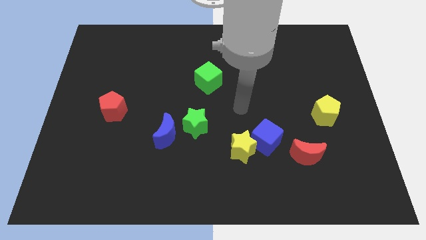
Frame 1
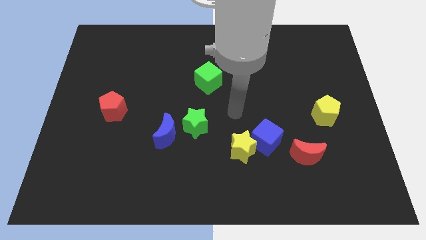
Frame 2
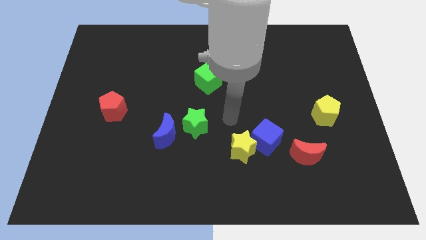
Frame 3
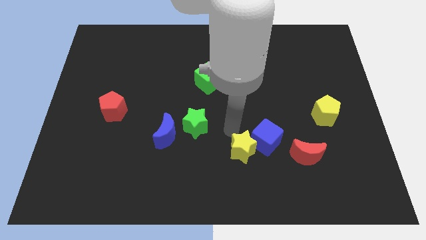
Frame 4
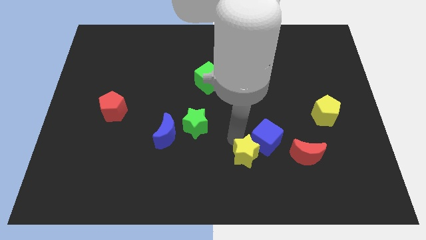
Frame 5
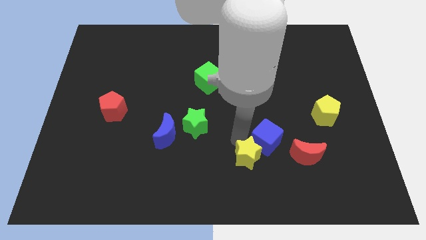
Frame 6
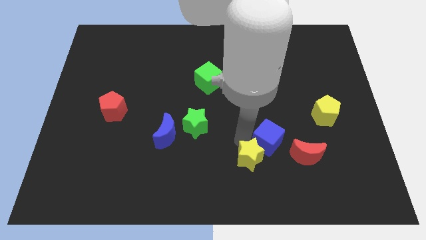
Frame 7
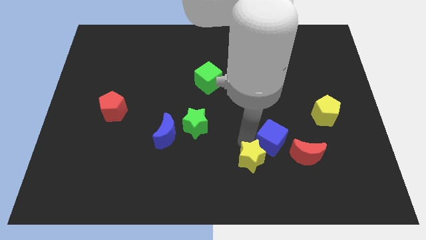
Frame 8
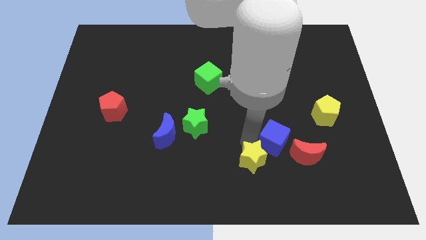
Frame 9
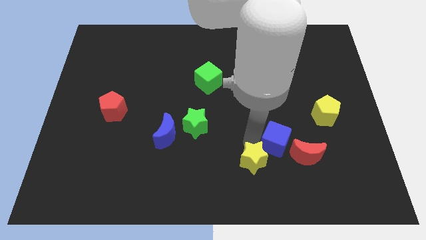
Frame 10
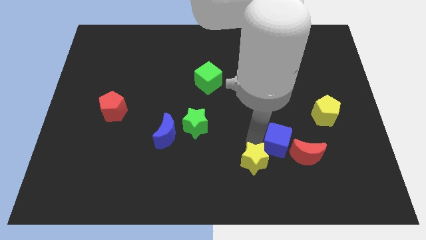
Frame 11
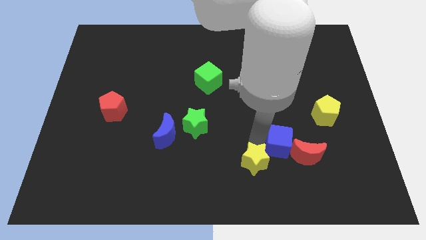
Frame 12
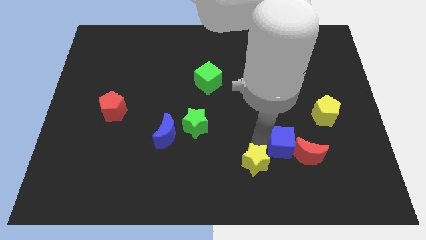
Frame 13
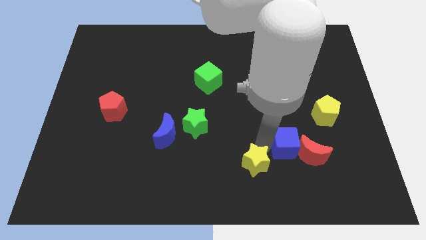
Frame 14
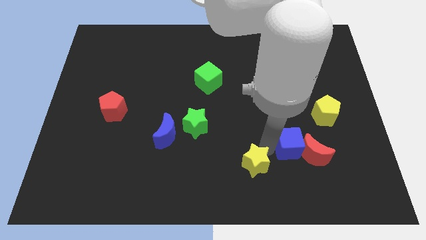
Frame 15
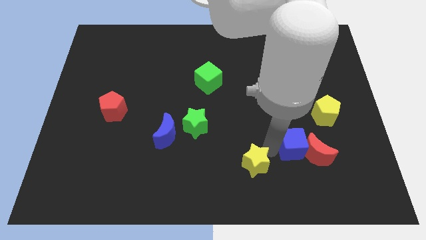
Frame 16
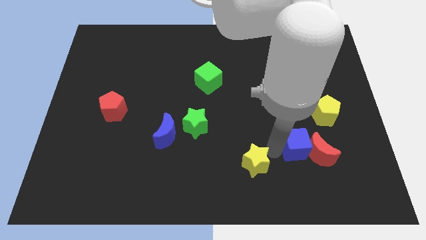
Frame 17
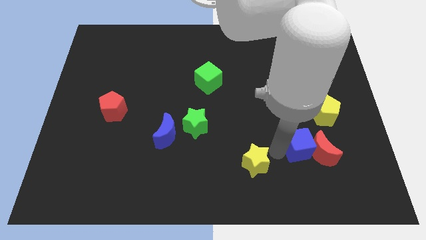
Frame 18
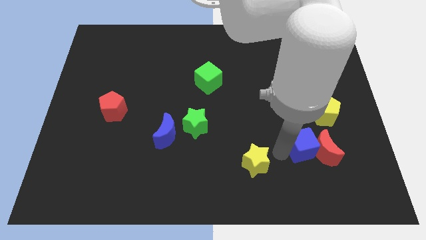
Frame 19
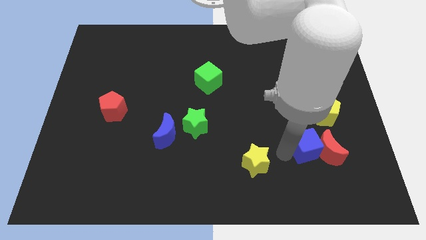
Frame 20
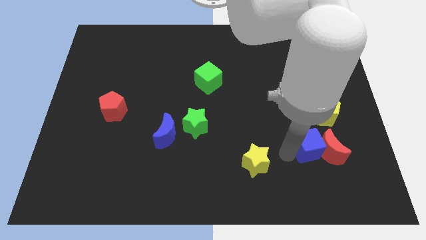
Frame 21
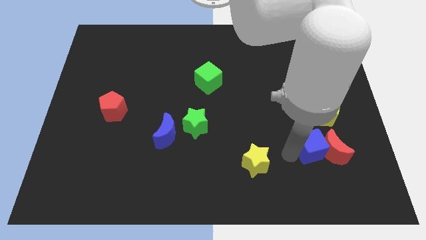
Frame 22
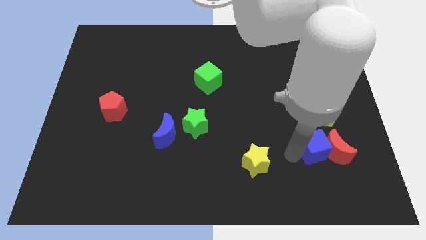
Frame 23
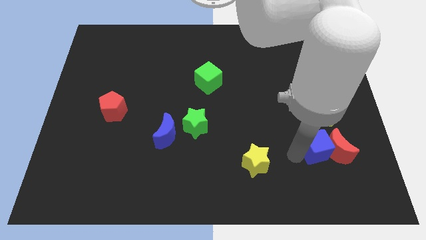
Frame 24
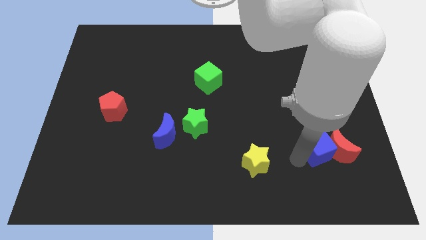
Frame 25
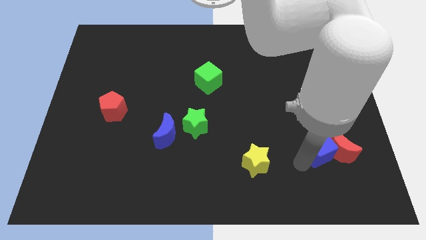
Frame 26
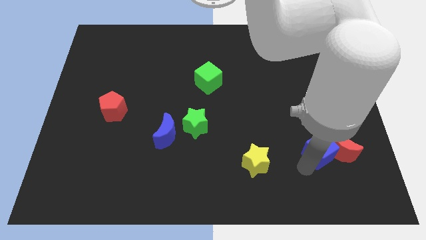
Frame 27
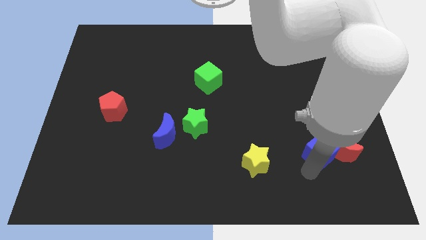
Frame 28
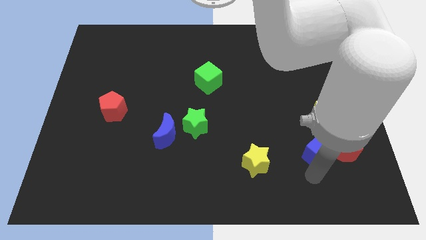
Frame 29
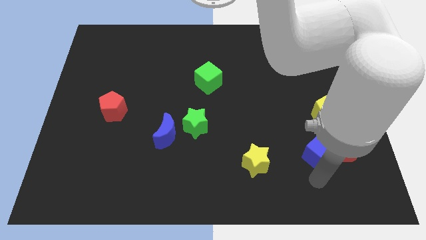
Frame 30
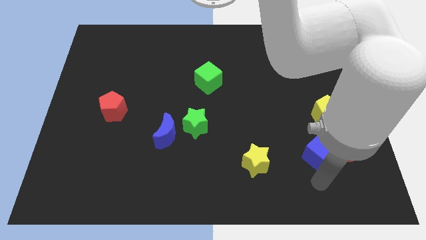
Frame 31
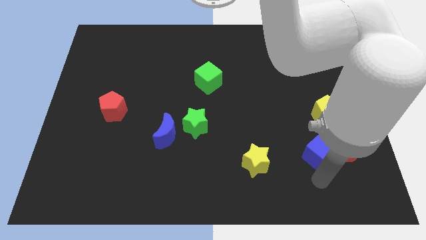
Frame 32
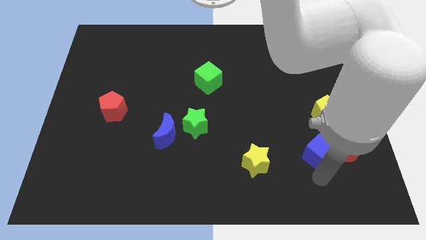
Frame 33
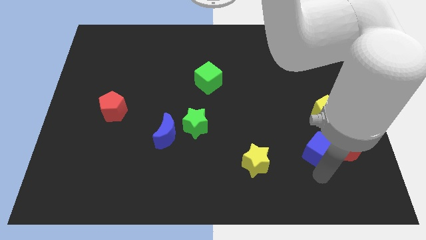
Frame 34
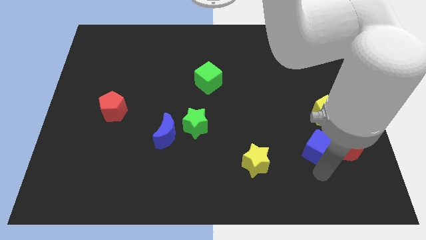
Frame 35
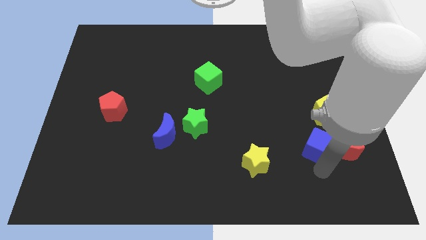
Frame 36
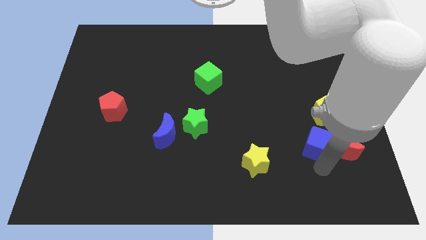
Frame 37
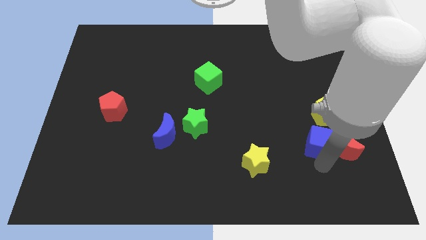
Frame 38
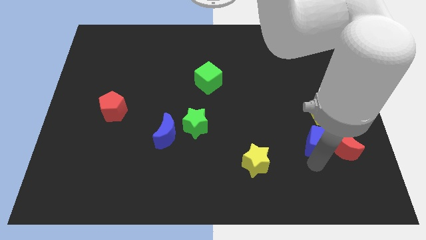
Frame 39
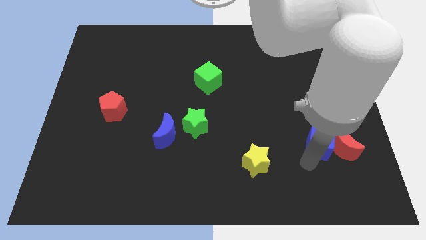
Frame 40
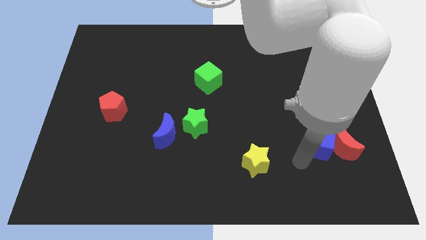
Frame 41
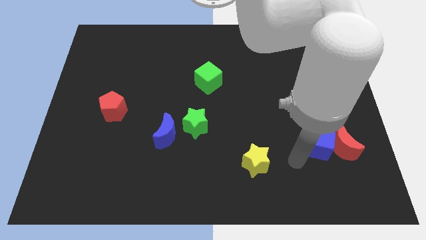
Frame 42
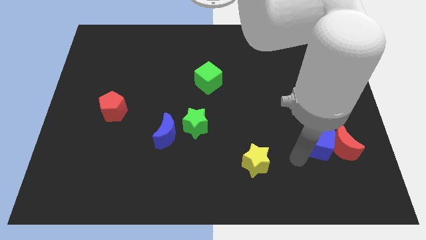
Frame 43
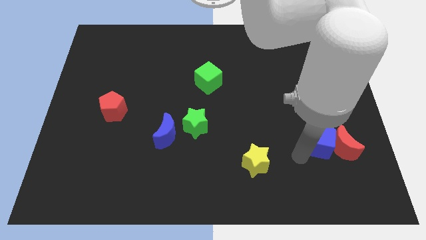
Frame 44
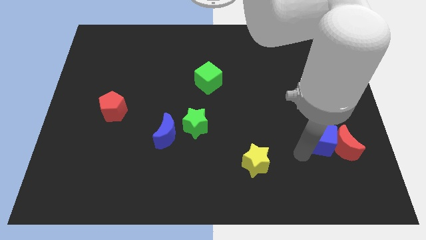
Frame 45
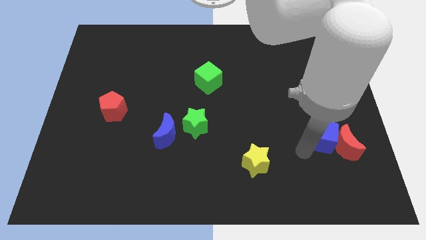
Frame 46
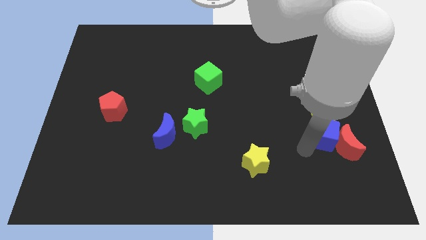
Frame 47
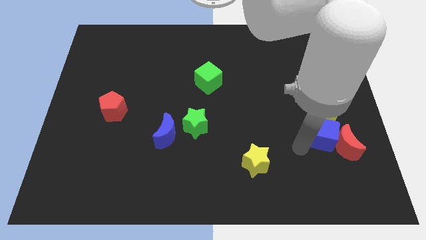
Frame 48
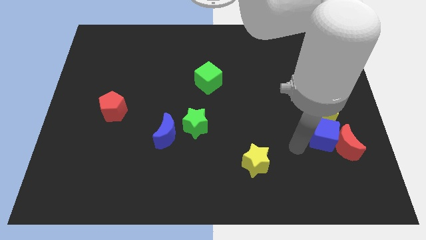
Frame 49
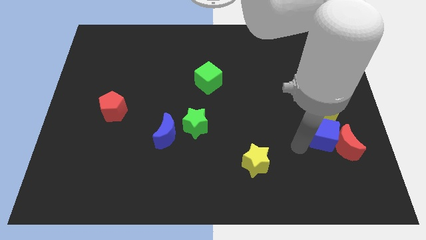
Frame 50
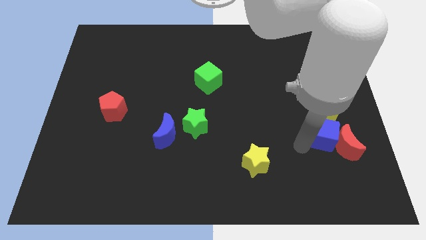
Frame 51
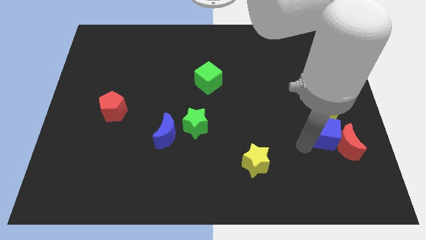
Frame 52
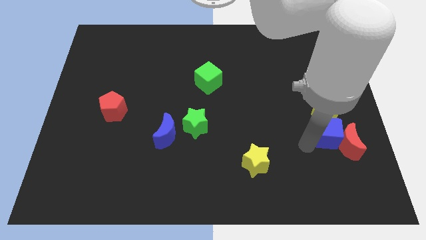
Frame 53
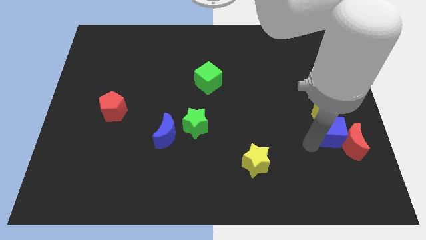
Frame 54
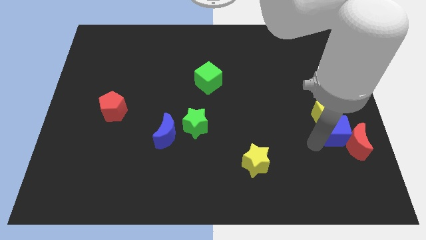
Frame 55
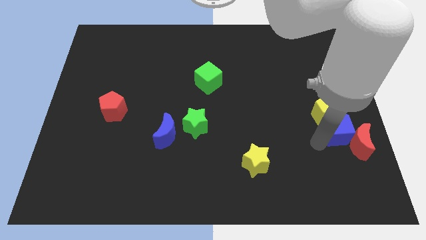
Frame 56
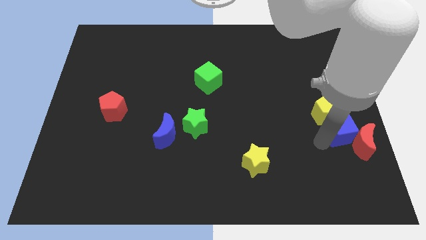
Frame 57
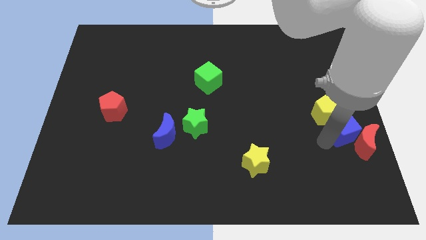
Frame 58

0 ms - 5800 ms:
put the blue cube to the center right

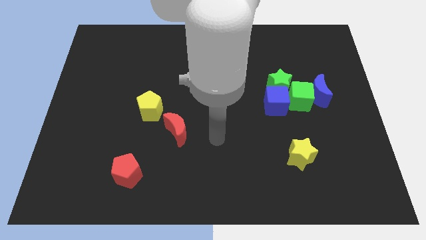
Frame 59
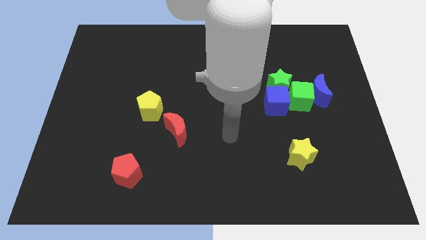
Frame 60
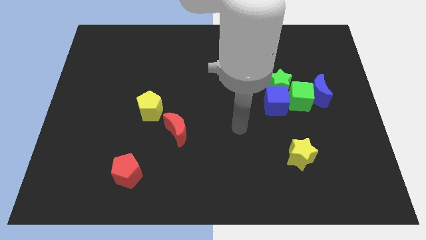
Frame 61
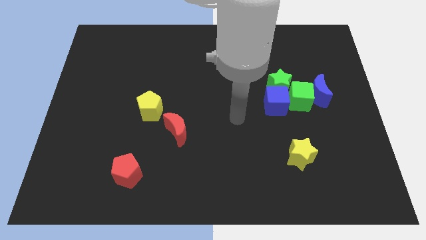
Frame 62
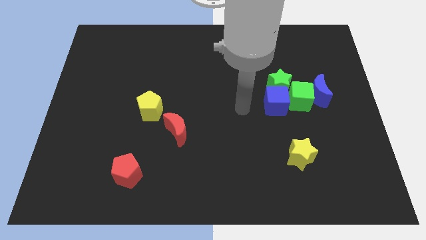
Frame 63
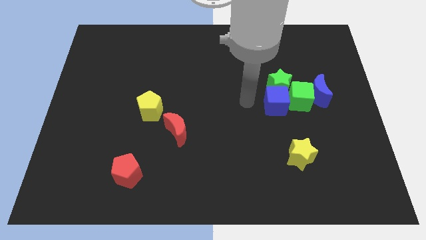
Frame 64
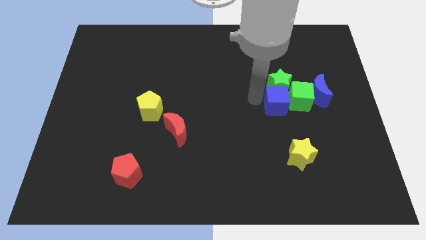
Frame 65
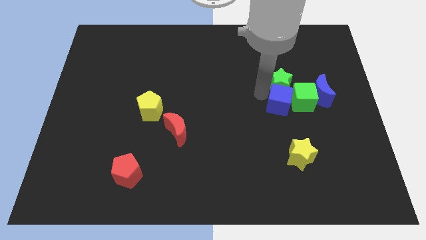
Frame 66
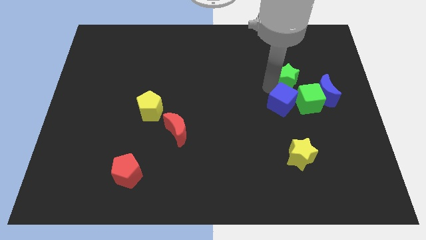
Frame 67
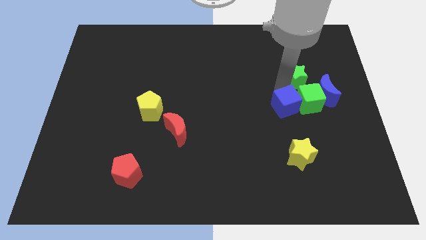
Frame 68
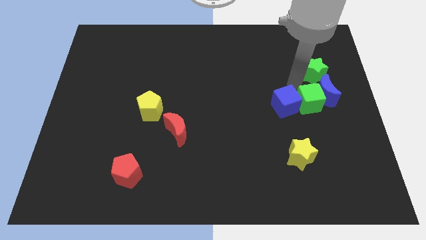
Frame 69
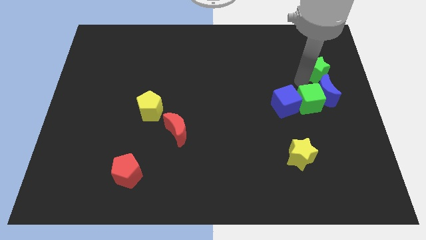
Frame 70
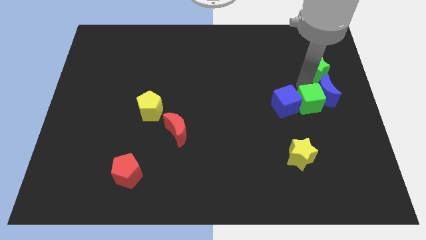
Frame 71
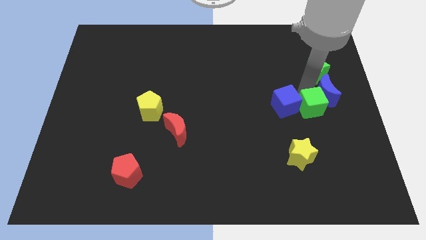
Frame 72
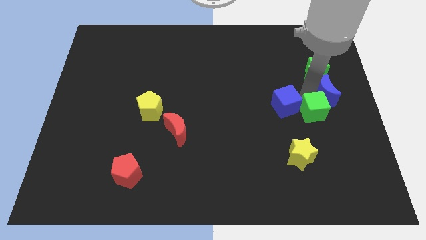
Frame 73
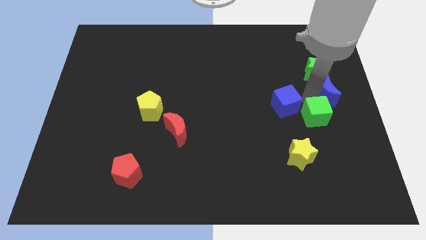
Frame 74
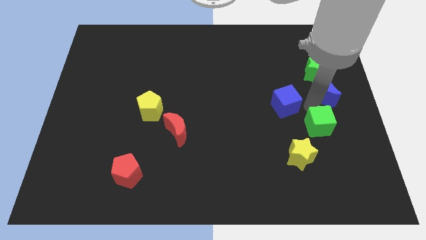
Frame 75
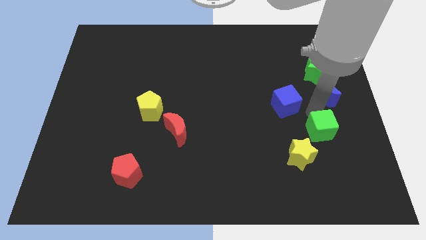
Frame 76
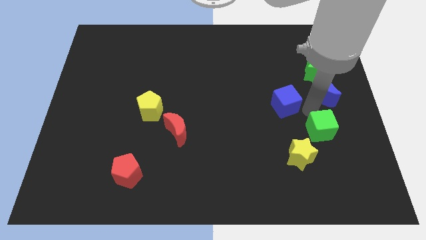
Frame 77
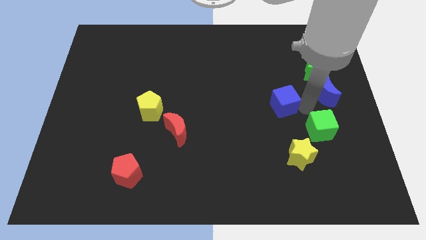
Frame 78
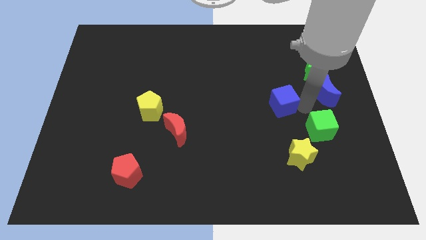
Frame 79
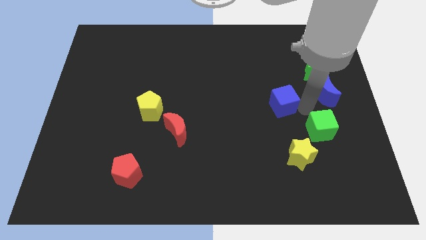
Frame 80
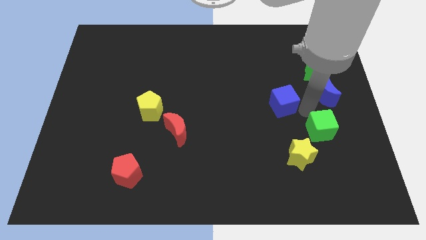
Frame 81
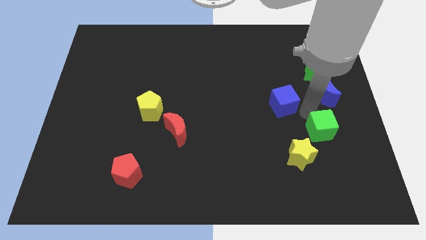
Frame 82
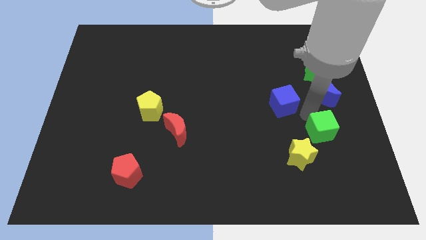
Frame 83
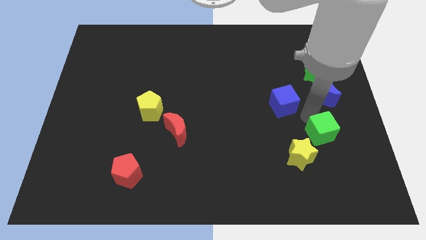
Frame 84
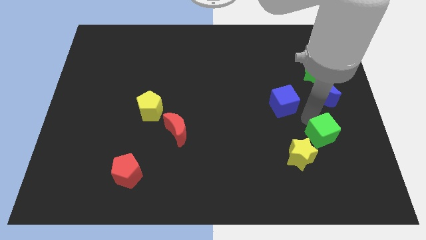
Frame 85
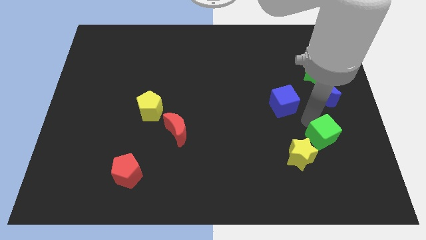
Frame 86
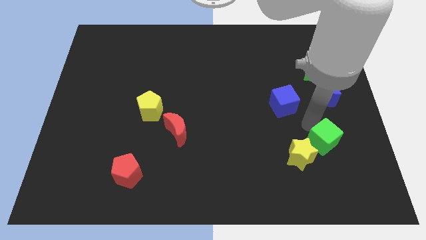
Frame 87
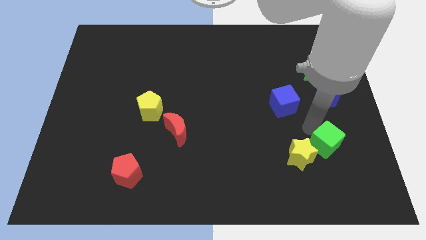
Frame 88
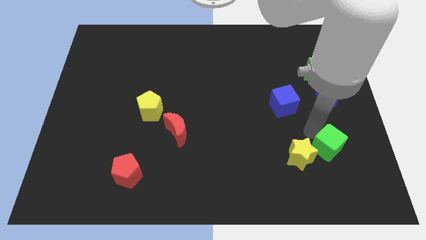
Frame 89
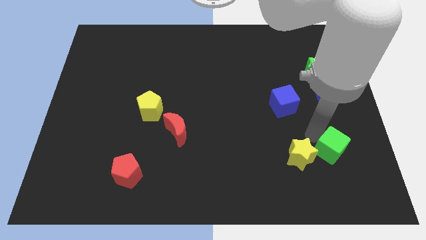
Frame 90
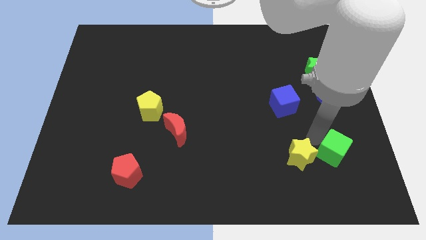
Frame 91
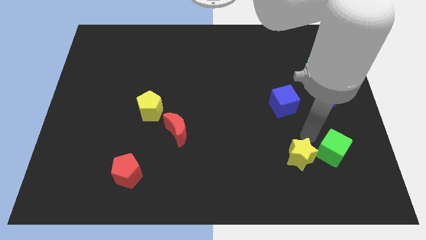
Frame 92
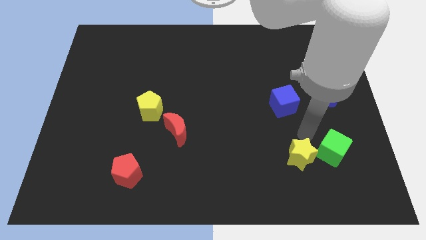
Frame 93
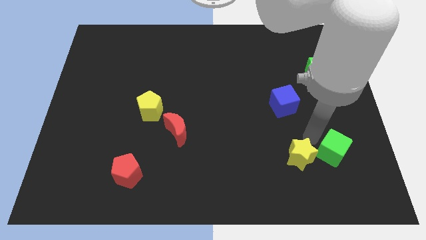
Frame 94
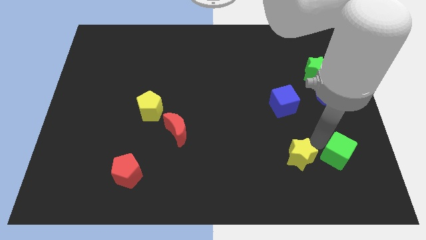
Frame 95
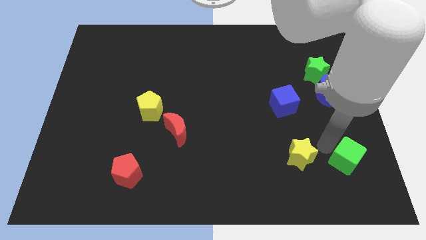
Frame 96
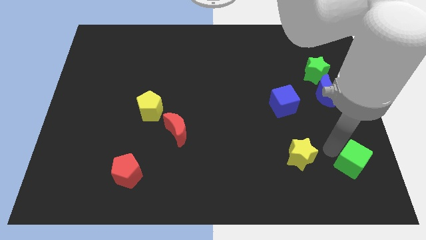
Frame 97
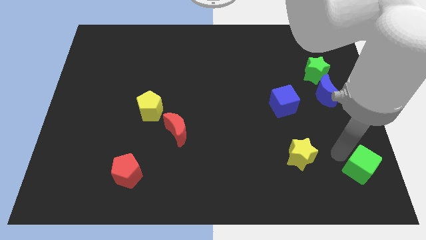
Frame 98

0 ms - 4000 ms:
move the green cube to the lower right corner
